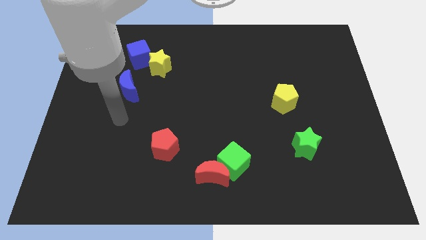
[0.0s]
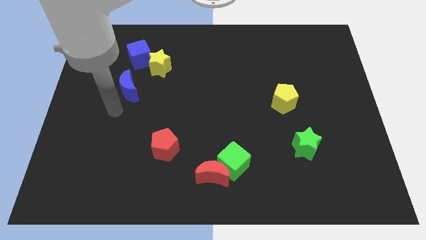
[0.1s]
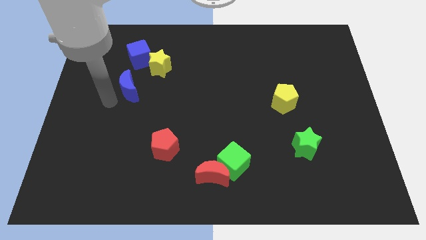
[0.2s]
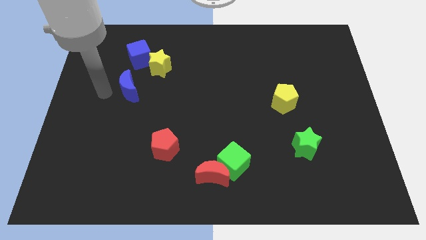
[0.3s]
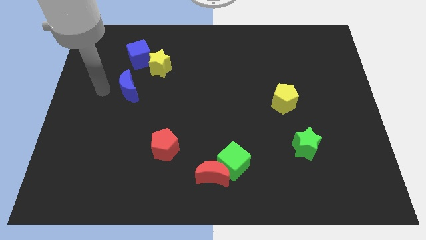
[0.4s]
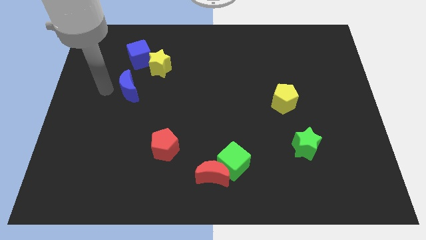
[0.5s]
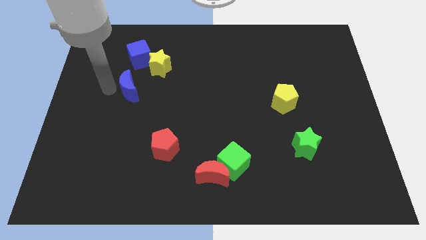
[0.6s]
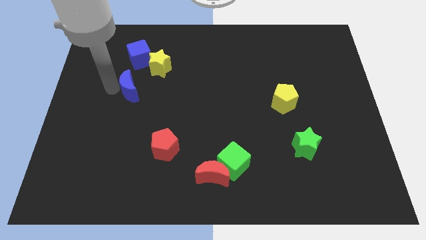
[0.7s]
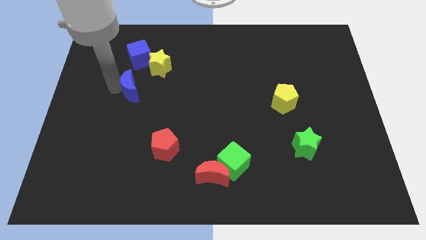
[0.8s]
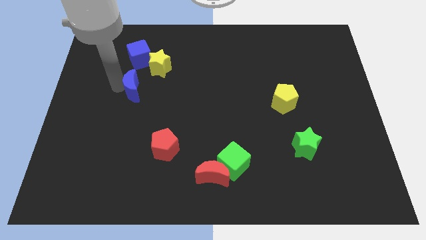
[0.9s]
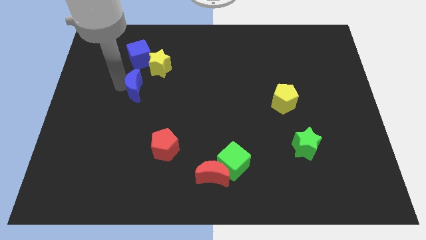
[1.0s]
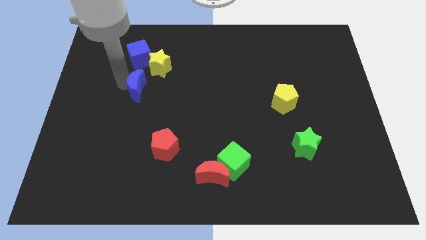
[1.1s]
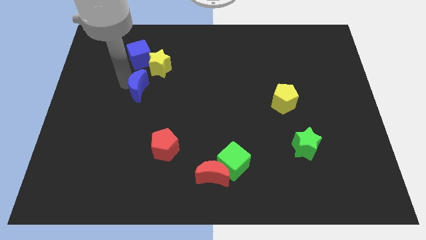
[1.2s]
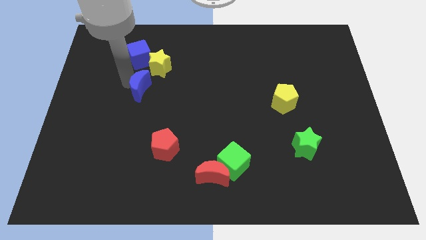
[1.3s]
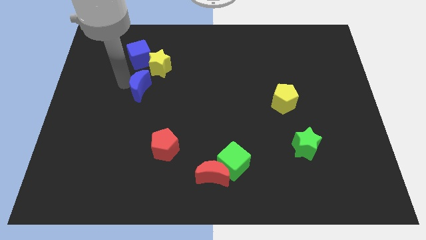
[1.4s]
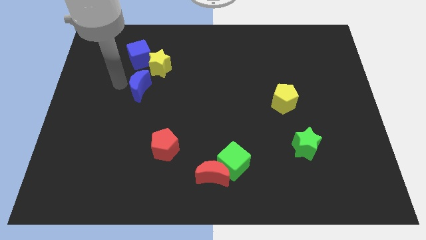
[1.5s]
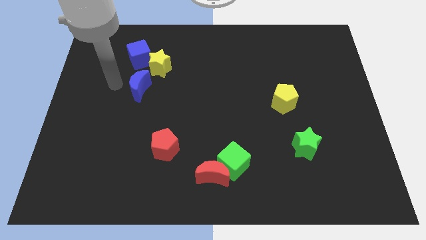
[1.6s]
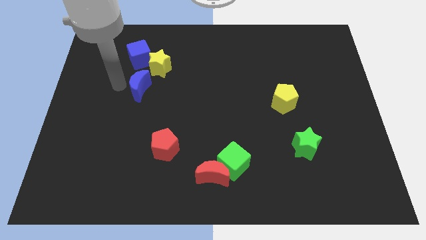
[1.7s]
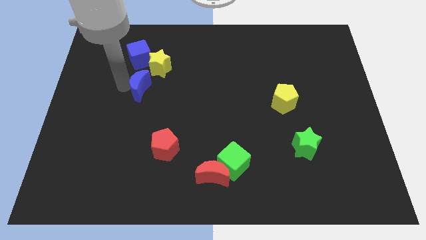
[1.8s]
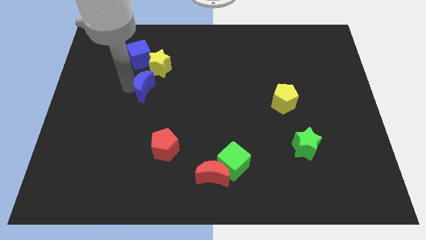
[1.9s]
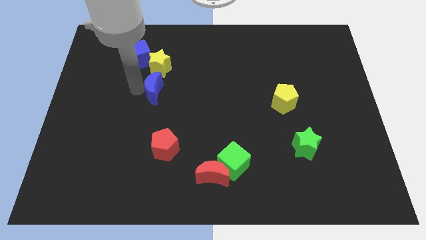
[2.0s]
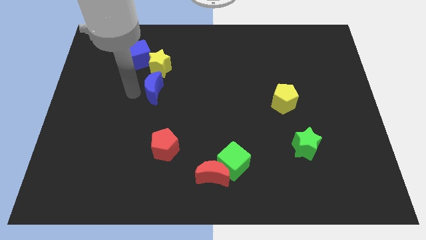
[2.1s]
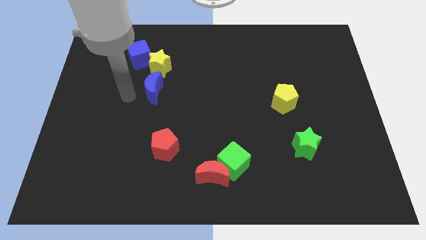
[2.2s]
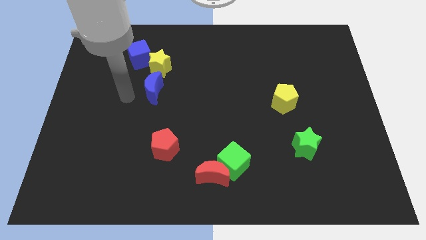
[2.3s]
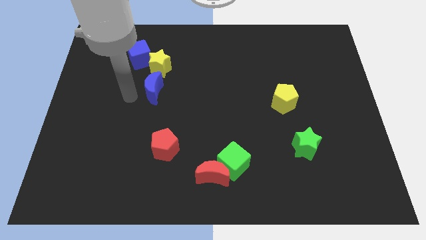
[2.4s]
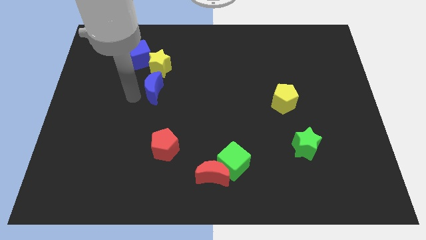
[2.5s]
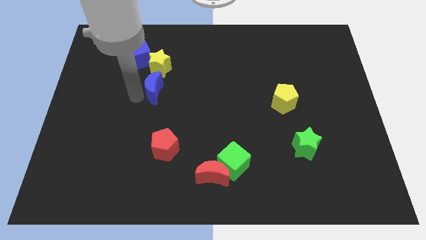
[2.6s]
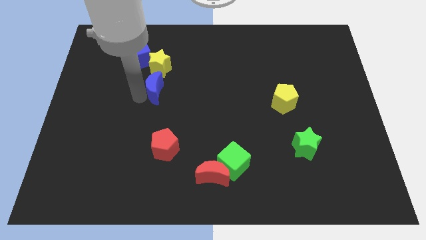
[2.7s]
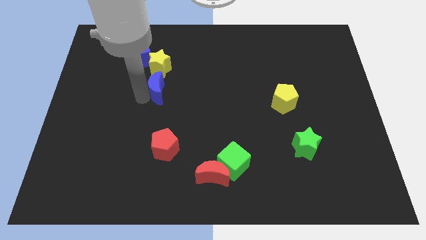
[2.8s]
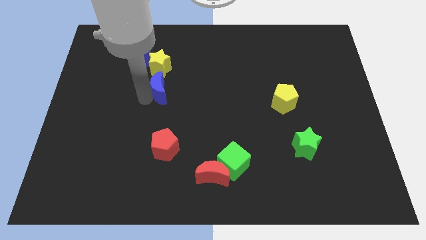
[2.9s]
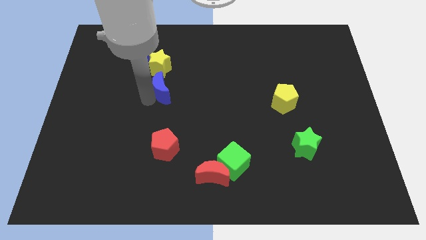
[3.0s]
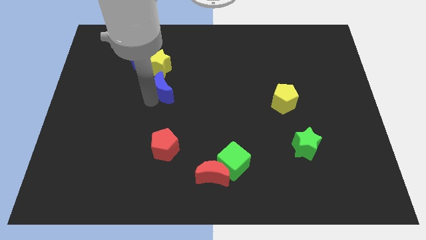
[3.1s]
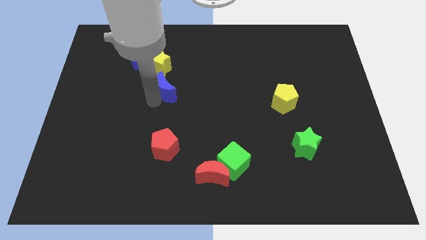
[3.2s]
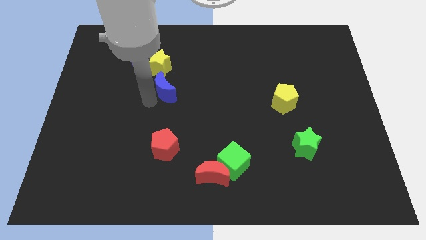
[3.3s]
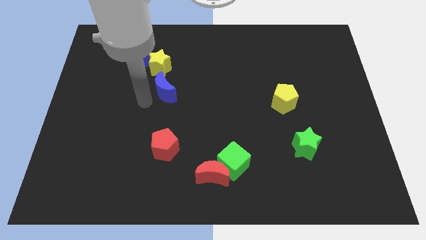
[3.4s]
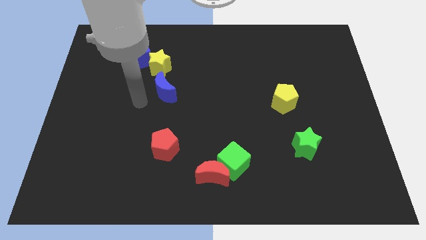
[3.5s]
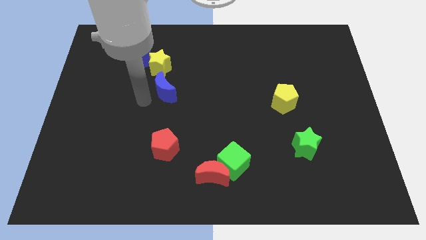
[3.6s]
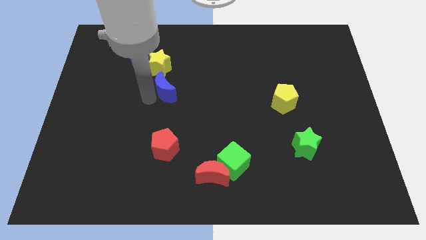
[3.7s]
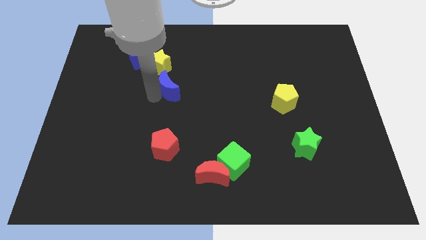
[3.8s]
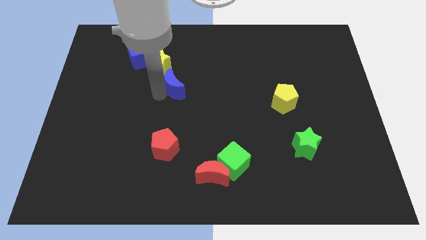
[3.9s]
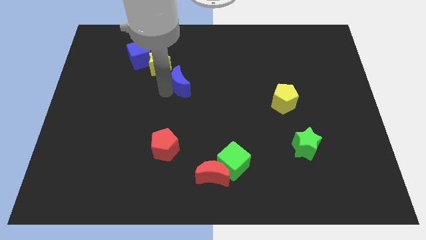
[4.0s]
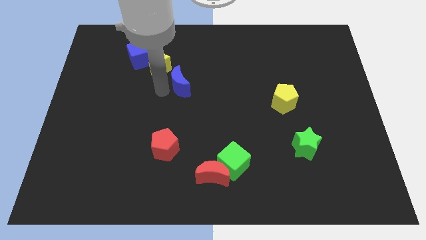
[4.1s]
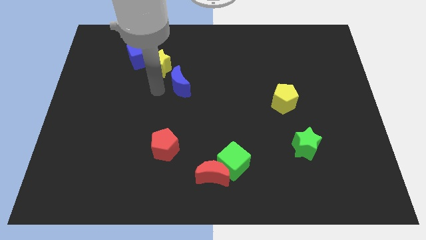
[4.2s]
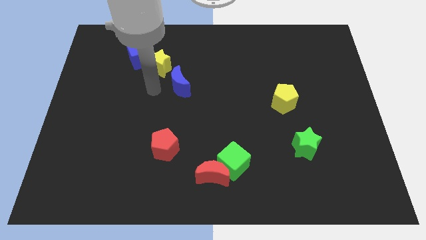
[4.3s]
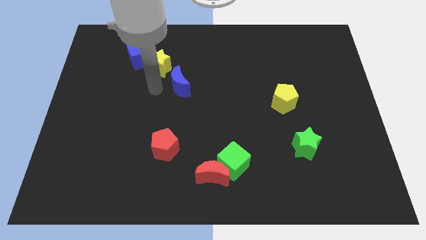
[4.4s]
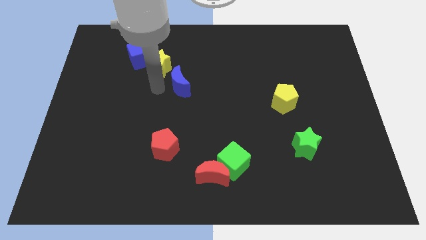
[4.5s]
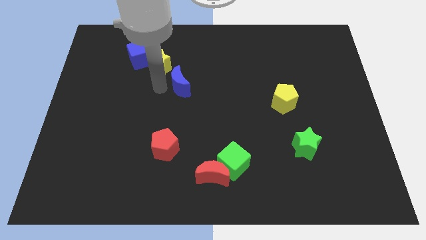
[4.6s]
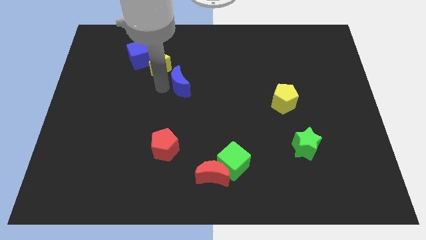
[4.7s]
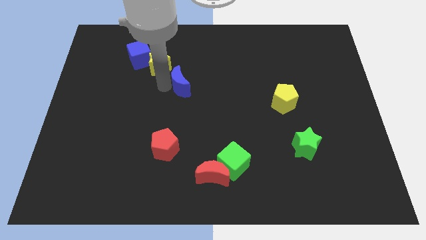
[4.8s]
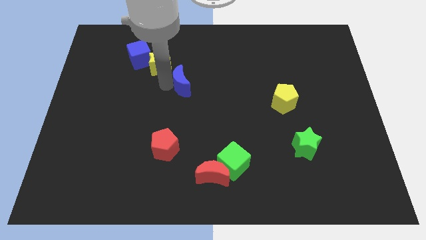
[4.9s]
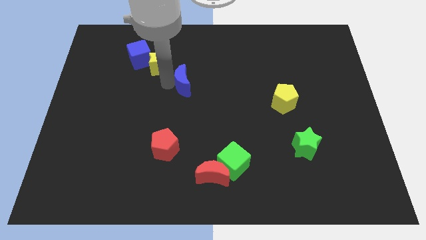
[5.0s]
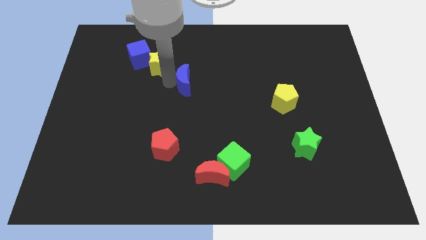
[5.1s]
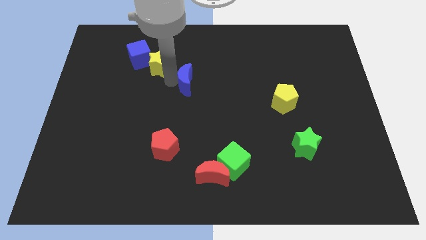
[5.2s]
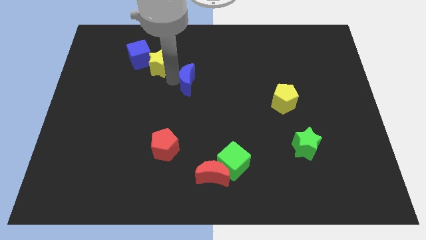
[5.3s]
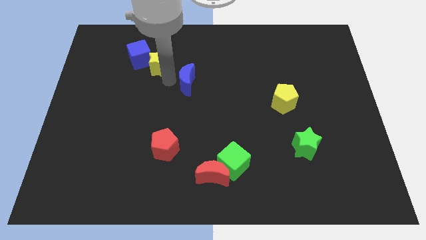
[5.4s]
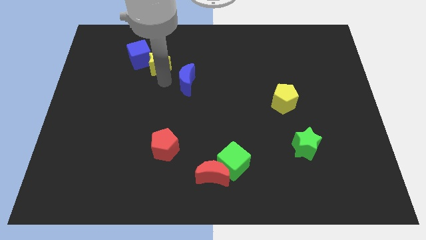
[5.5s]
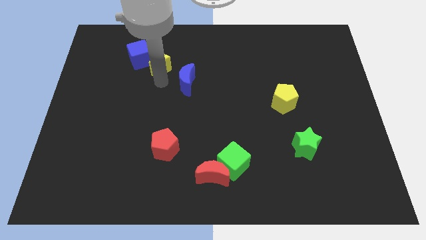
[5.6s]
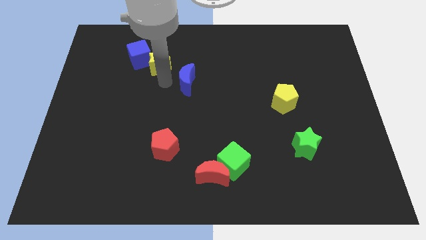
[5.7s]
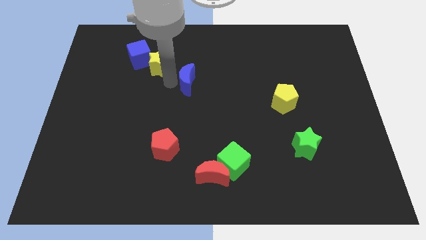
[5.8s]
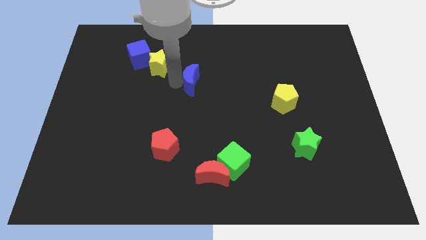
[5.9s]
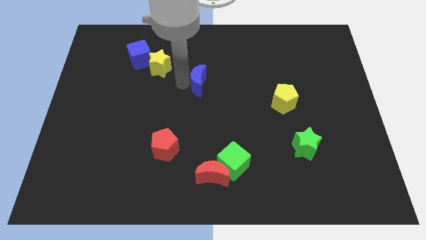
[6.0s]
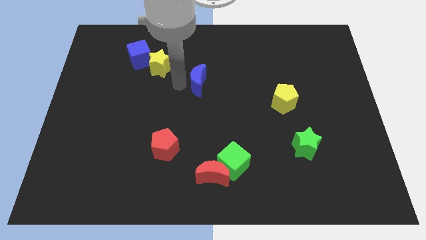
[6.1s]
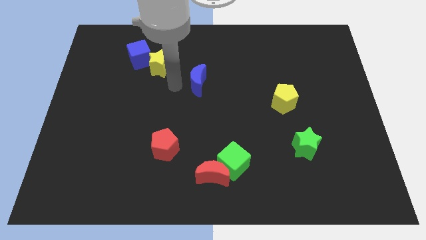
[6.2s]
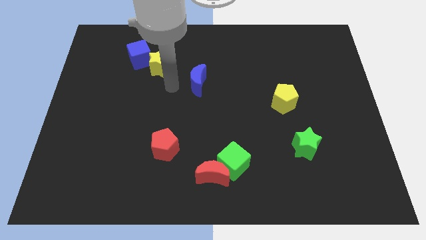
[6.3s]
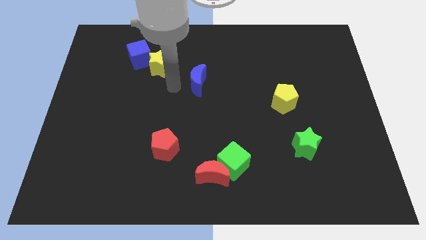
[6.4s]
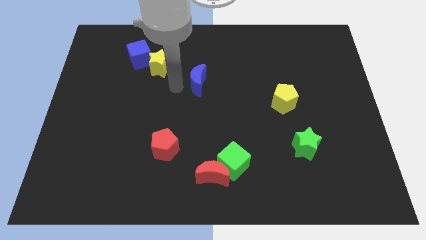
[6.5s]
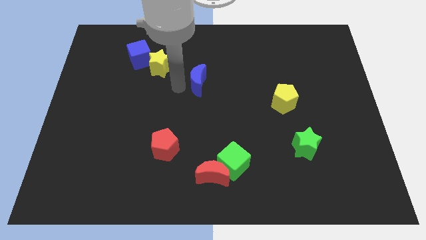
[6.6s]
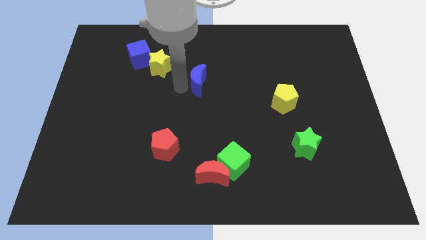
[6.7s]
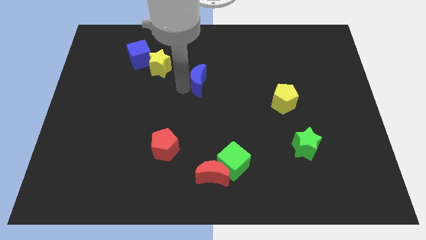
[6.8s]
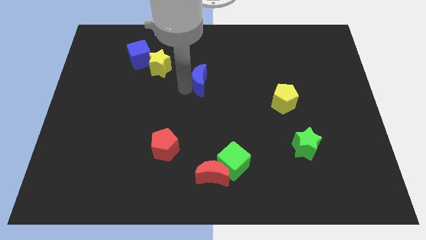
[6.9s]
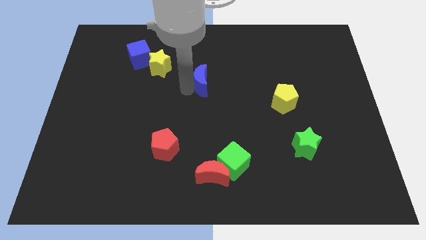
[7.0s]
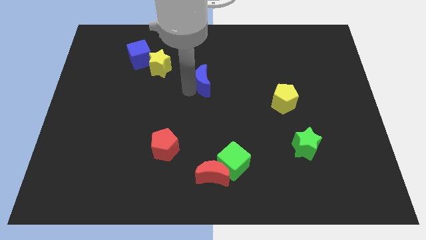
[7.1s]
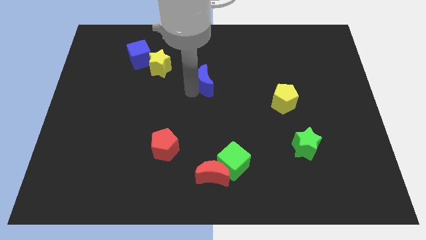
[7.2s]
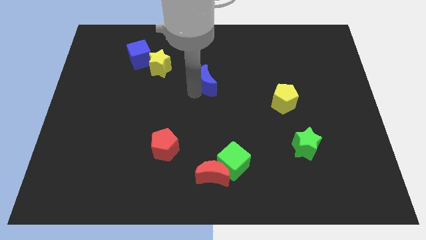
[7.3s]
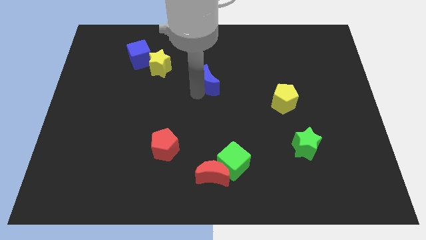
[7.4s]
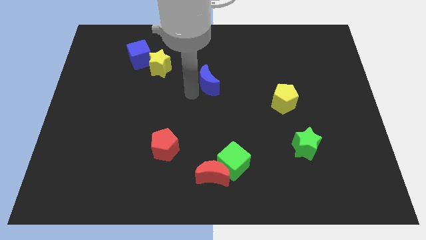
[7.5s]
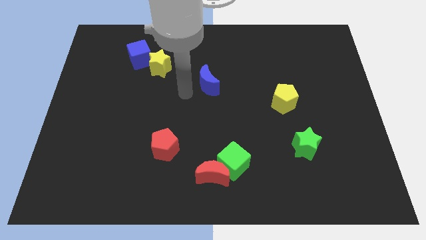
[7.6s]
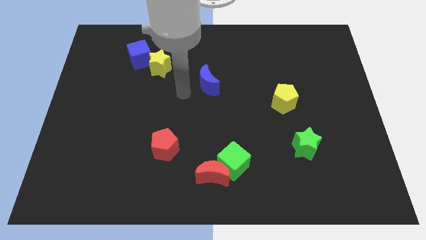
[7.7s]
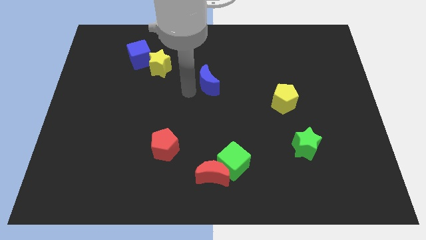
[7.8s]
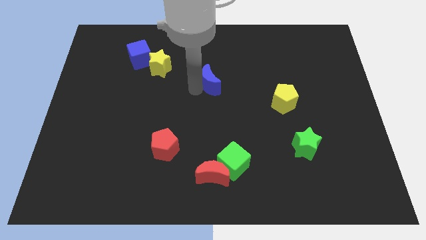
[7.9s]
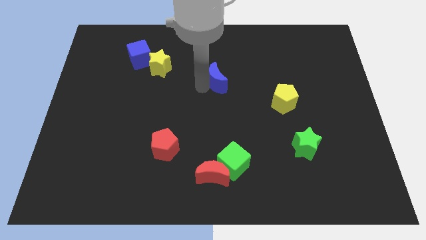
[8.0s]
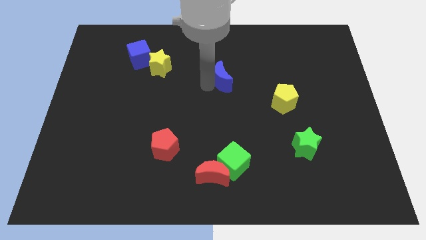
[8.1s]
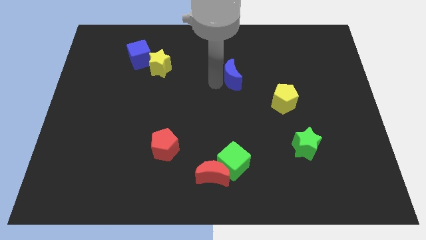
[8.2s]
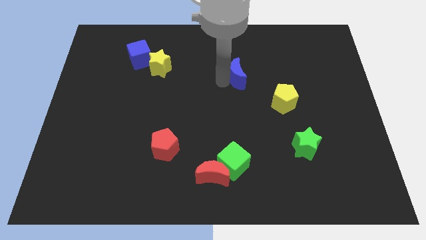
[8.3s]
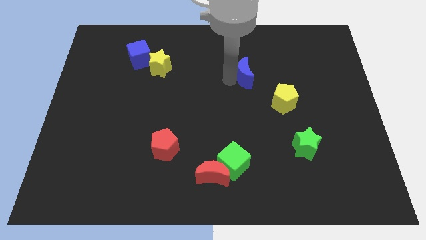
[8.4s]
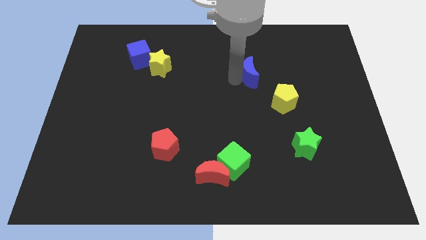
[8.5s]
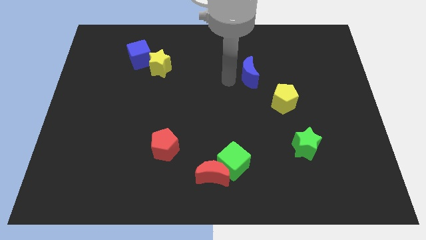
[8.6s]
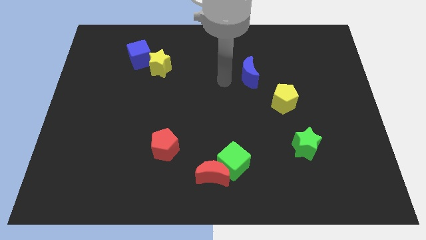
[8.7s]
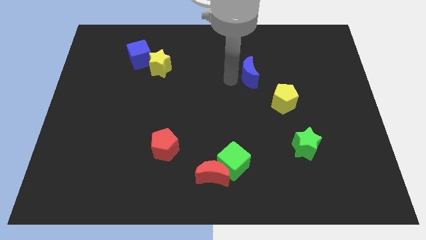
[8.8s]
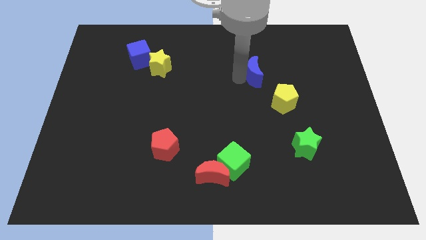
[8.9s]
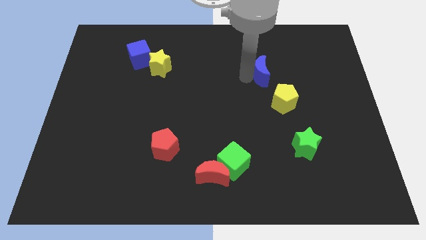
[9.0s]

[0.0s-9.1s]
put the blue moon above the yellow pentagon
